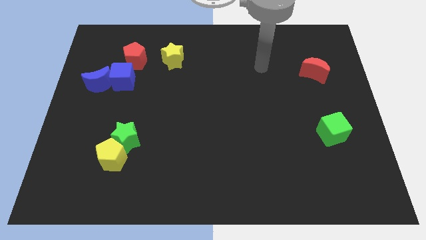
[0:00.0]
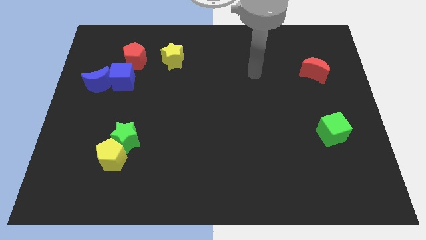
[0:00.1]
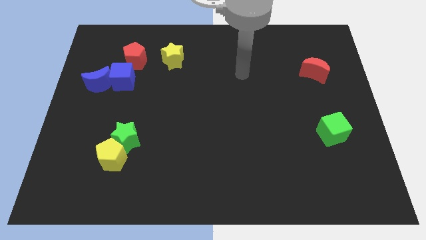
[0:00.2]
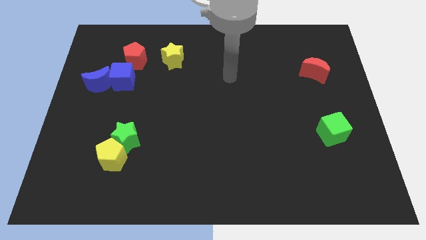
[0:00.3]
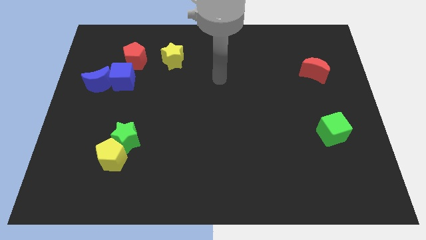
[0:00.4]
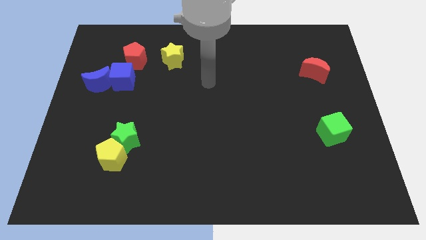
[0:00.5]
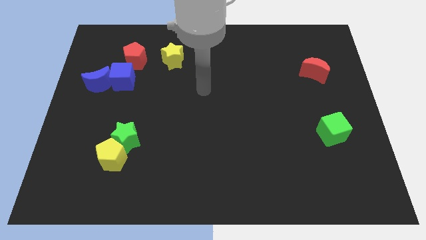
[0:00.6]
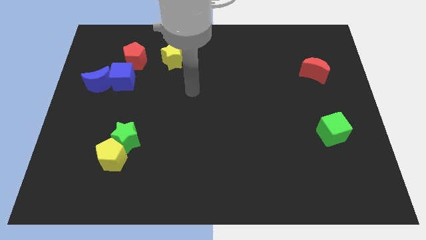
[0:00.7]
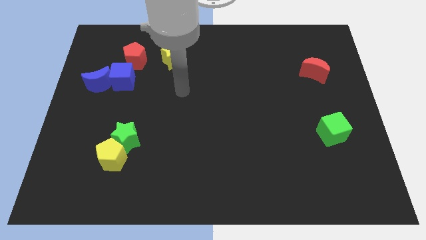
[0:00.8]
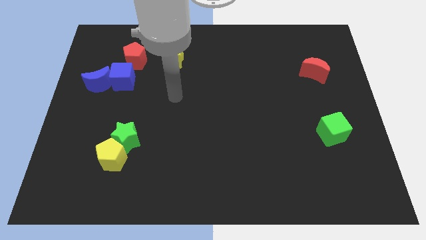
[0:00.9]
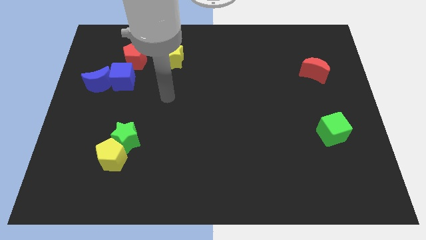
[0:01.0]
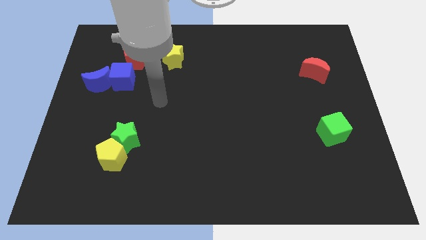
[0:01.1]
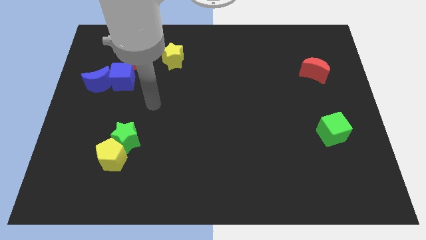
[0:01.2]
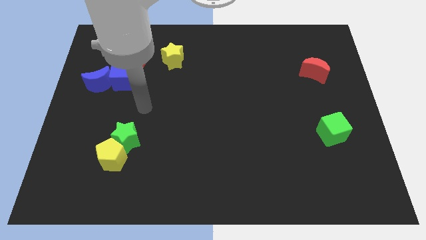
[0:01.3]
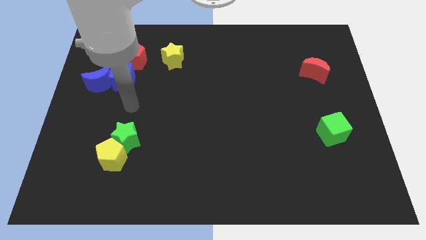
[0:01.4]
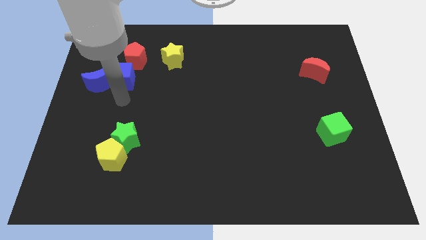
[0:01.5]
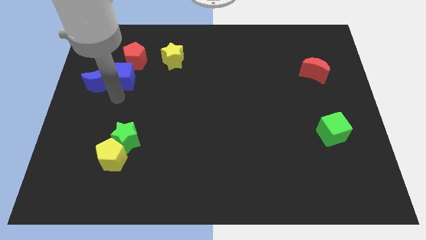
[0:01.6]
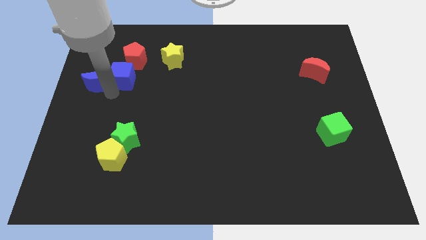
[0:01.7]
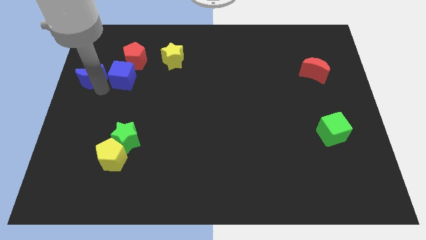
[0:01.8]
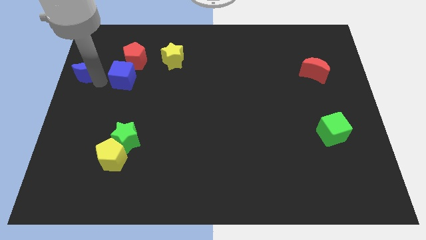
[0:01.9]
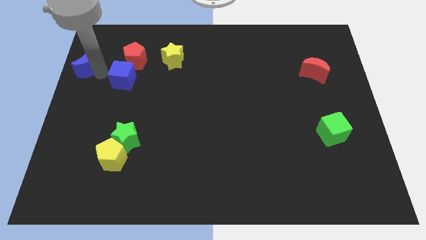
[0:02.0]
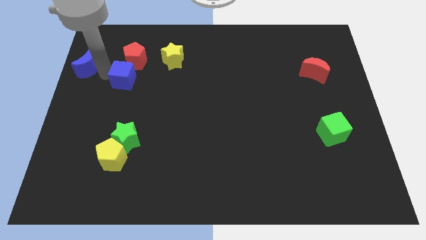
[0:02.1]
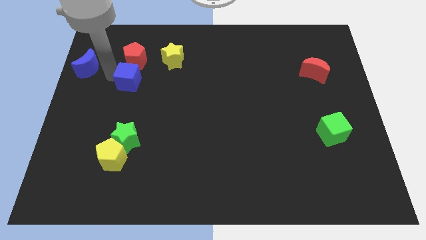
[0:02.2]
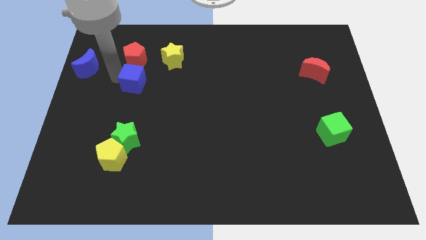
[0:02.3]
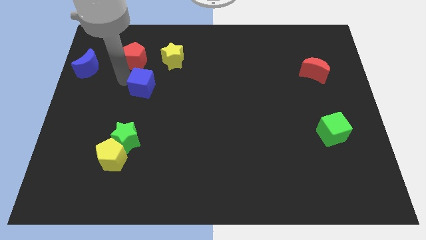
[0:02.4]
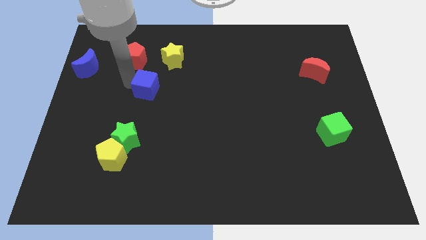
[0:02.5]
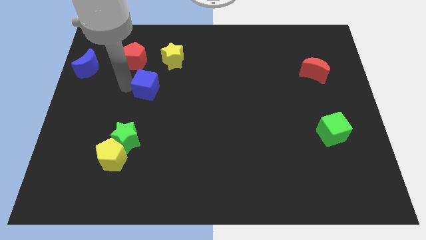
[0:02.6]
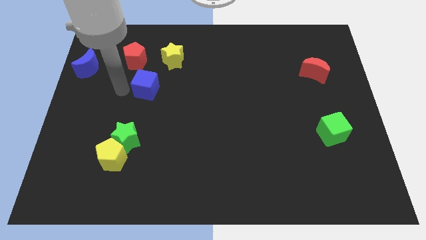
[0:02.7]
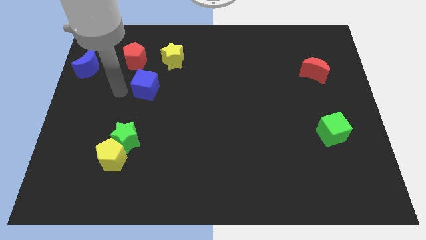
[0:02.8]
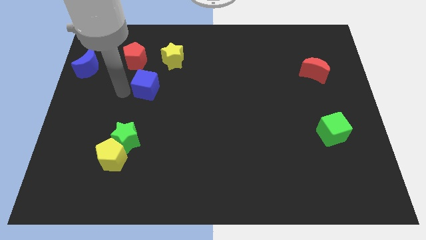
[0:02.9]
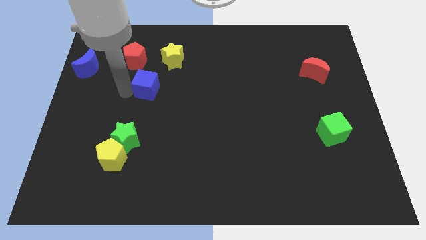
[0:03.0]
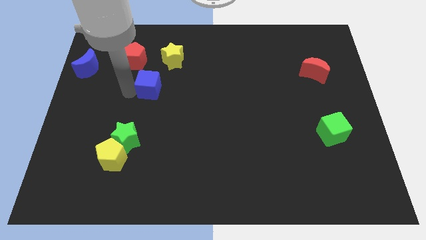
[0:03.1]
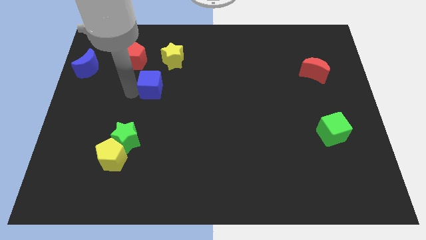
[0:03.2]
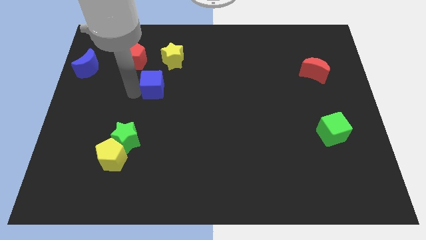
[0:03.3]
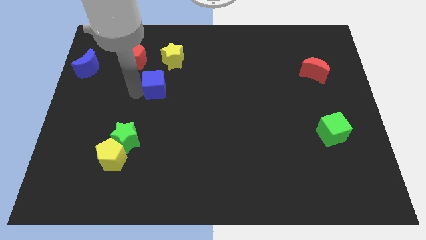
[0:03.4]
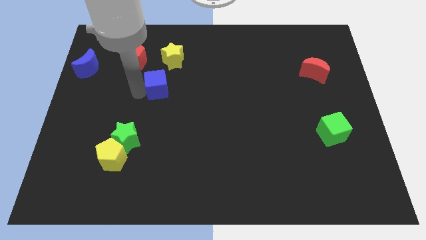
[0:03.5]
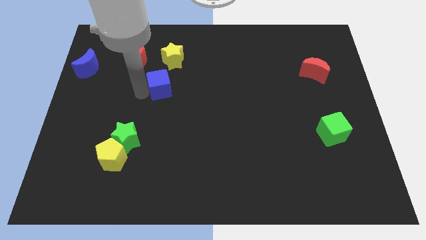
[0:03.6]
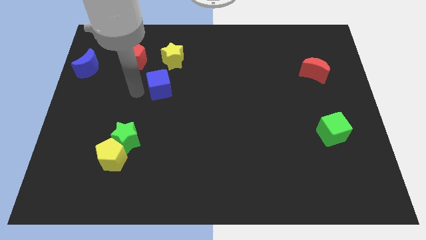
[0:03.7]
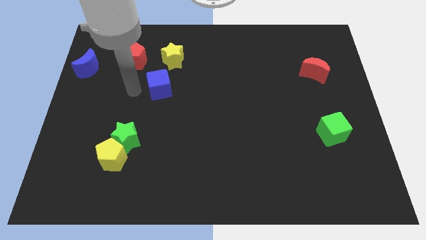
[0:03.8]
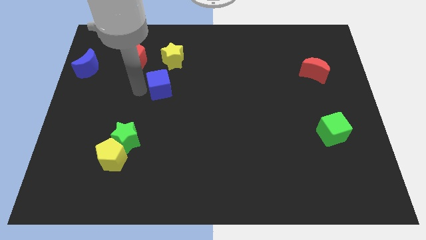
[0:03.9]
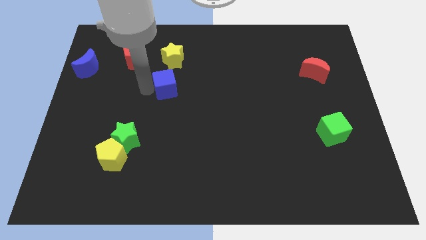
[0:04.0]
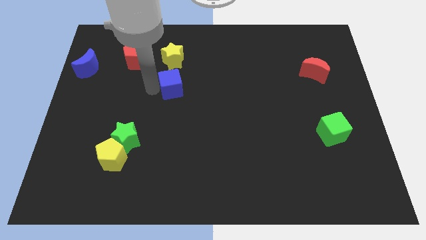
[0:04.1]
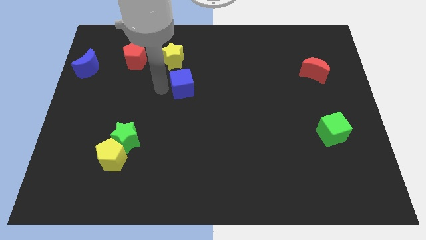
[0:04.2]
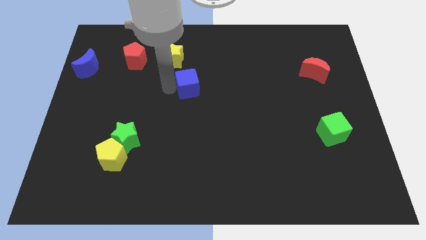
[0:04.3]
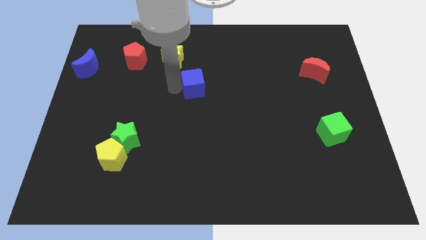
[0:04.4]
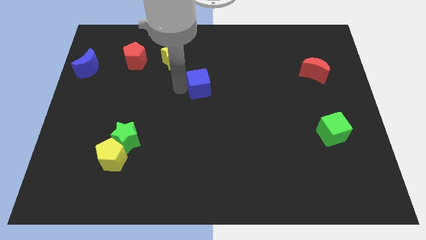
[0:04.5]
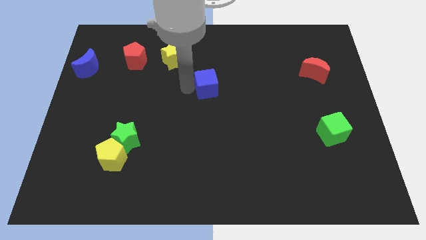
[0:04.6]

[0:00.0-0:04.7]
push the blue cube right

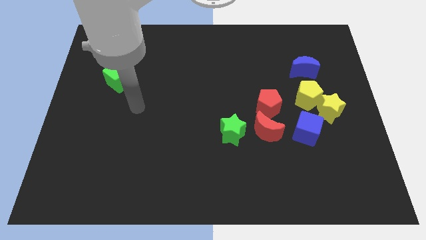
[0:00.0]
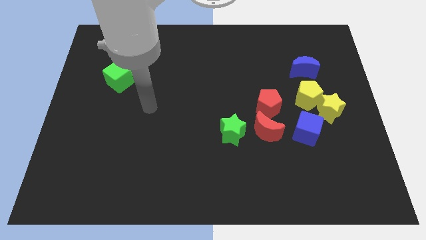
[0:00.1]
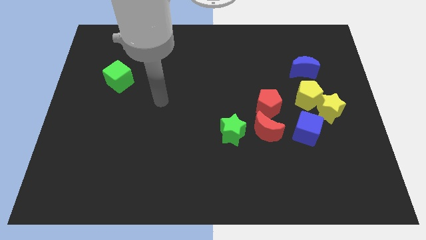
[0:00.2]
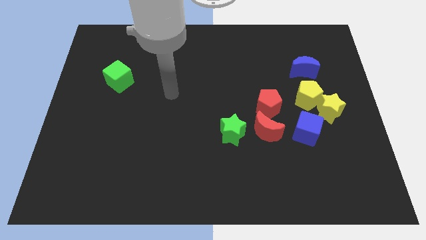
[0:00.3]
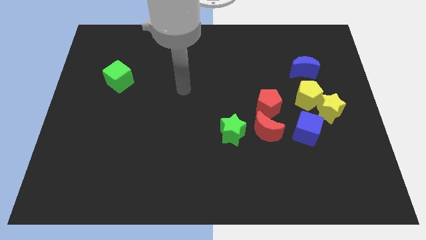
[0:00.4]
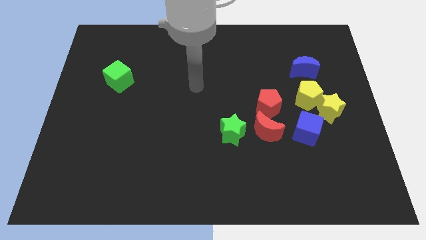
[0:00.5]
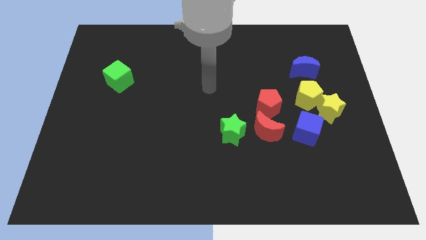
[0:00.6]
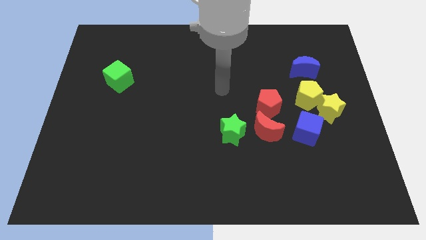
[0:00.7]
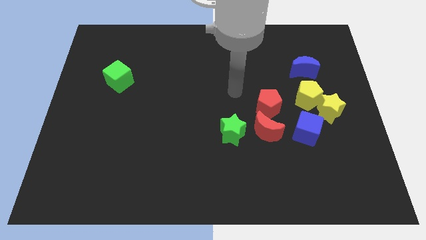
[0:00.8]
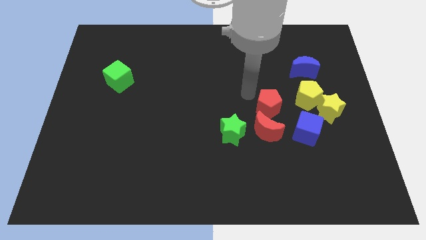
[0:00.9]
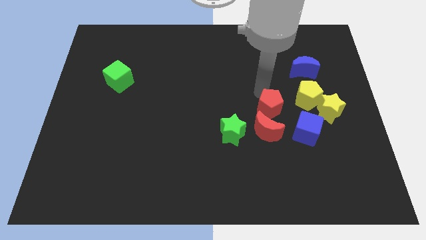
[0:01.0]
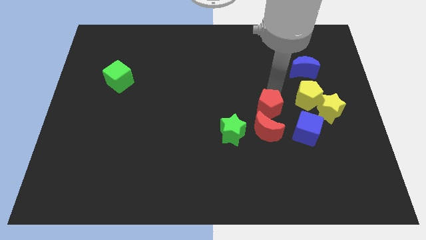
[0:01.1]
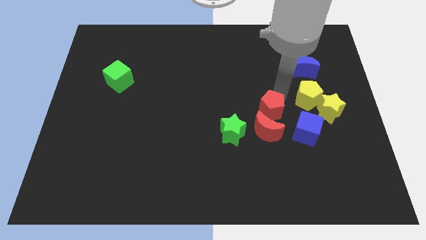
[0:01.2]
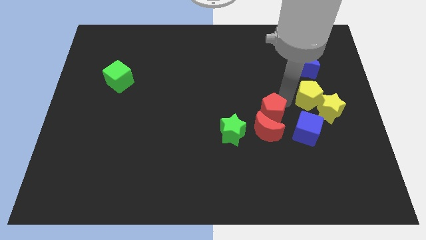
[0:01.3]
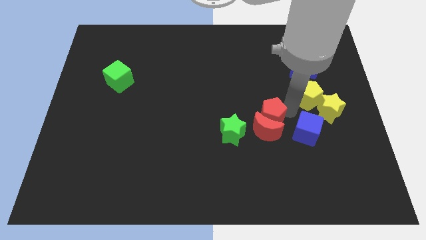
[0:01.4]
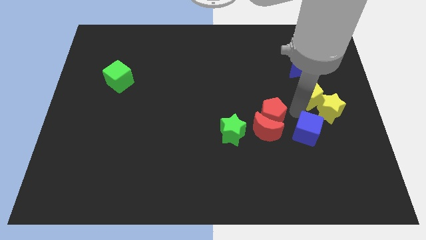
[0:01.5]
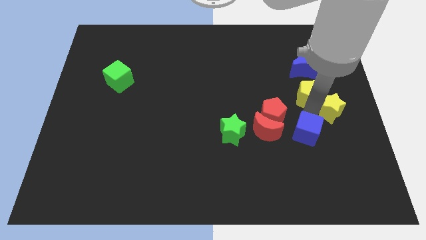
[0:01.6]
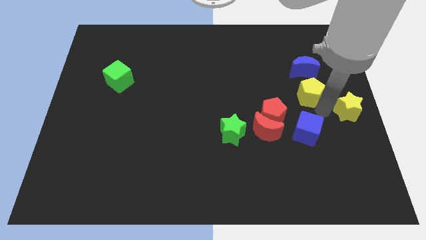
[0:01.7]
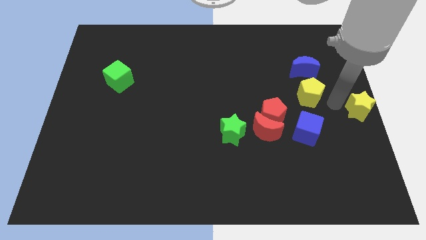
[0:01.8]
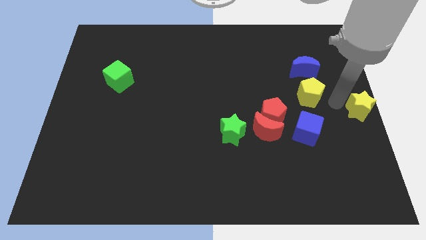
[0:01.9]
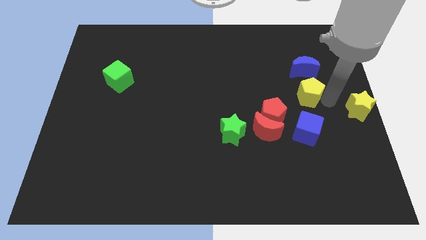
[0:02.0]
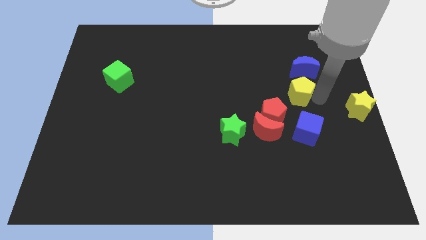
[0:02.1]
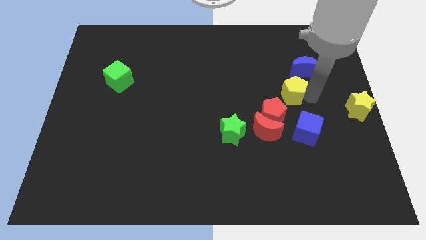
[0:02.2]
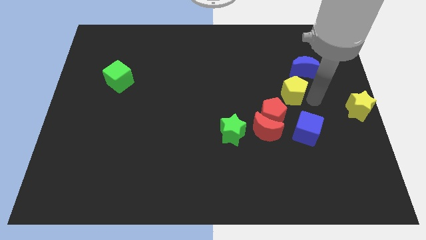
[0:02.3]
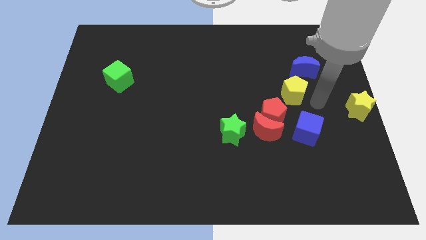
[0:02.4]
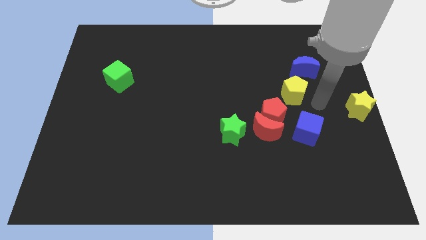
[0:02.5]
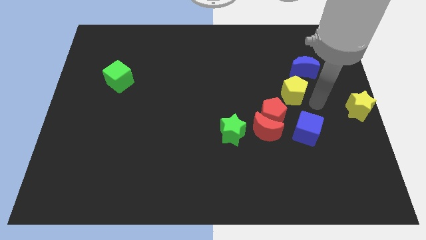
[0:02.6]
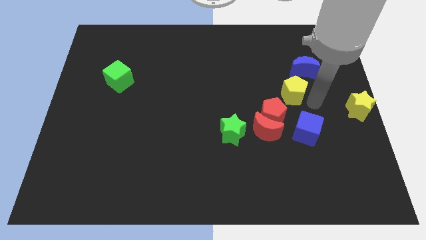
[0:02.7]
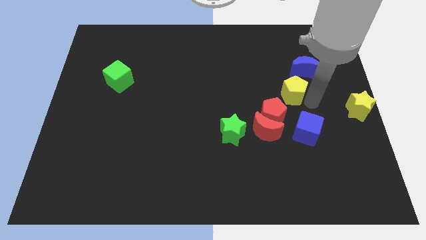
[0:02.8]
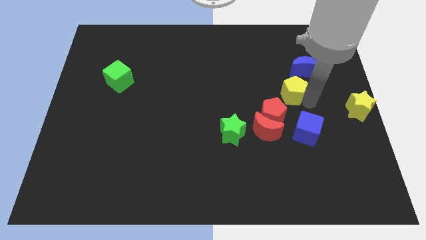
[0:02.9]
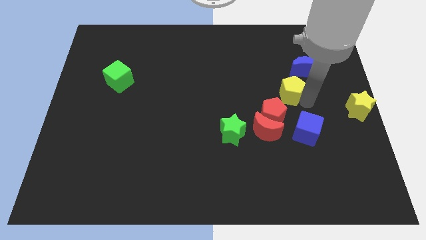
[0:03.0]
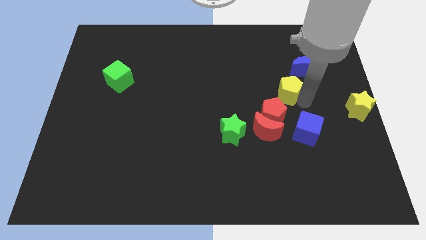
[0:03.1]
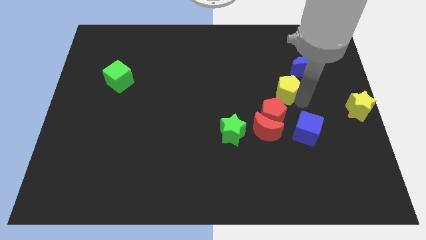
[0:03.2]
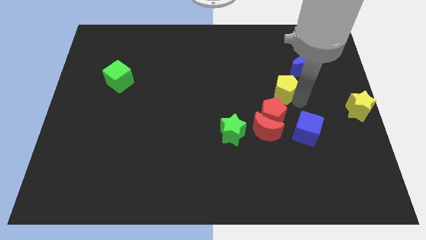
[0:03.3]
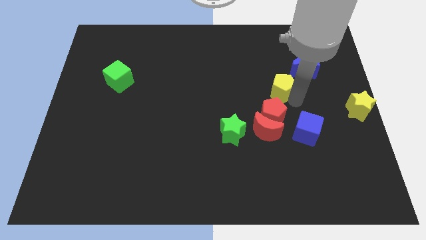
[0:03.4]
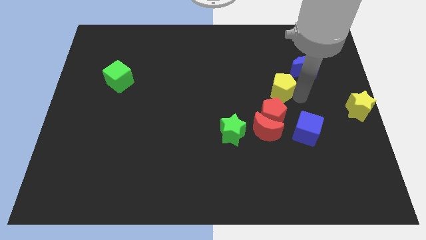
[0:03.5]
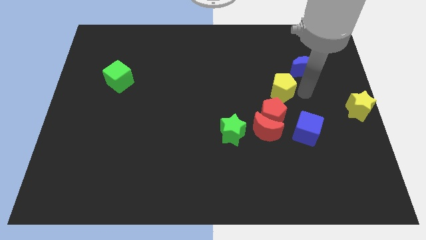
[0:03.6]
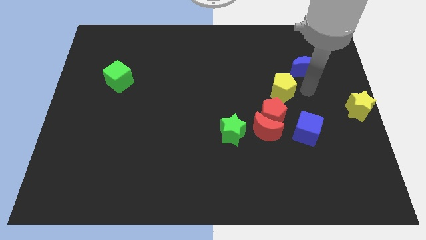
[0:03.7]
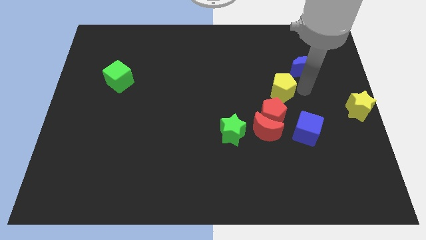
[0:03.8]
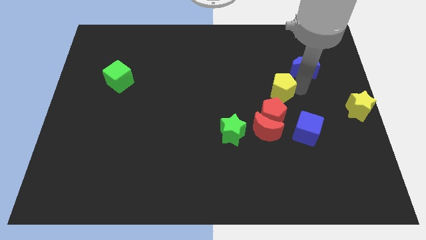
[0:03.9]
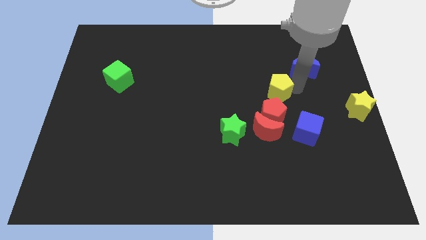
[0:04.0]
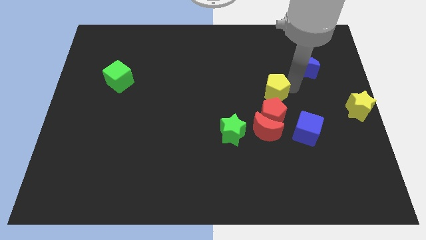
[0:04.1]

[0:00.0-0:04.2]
slightly slide the yellow pentagon left
